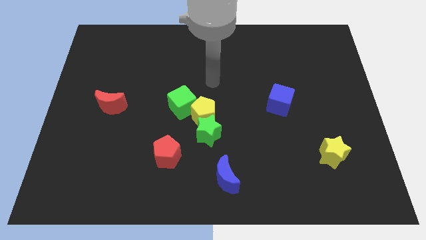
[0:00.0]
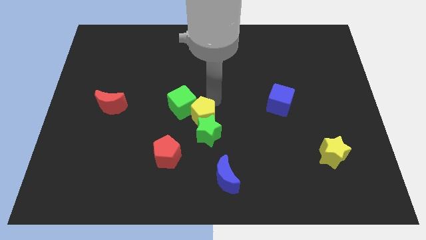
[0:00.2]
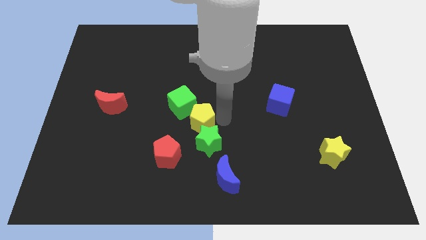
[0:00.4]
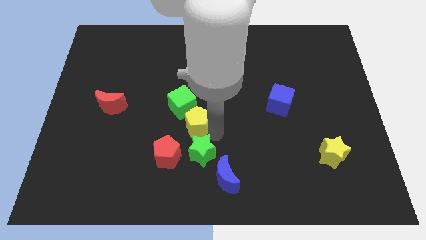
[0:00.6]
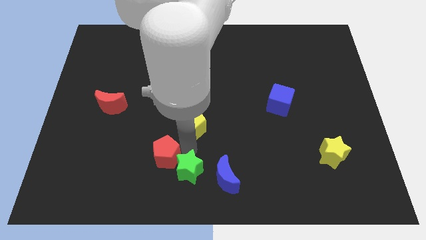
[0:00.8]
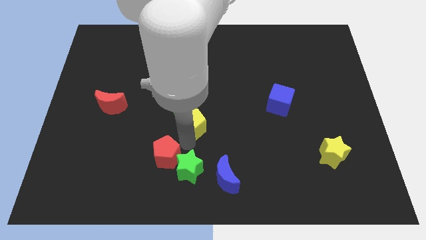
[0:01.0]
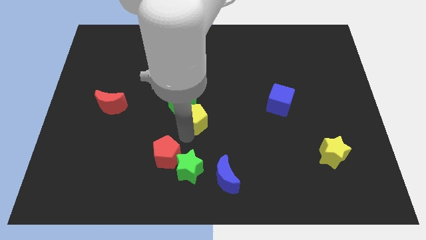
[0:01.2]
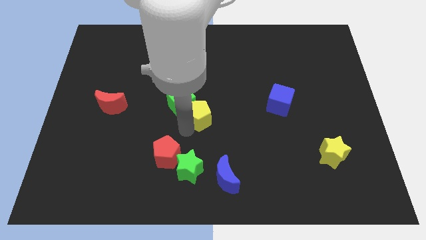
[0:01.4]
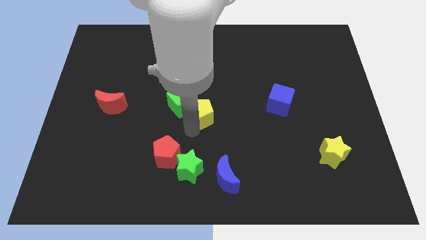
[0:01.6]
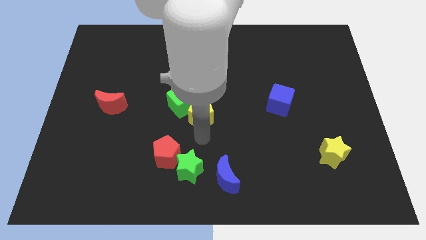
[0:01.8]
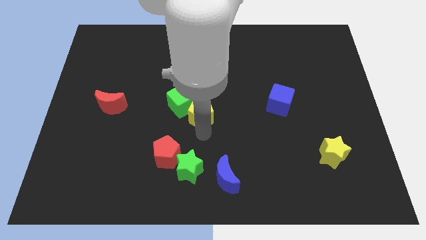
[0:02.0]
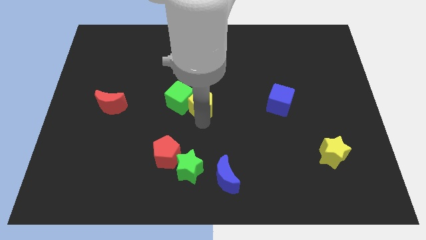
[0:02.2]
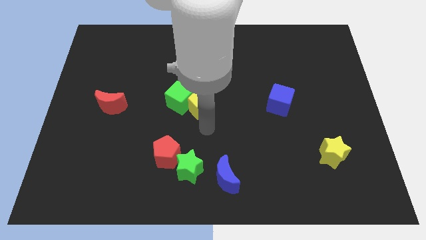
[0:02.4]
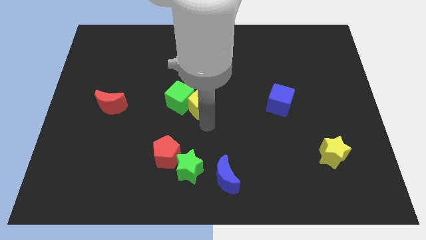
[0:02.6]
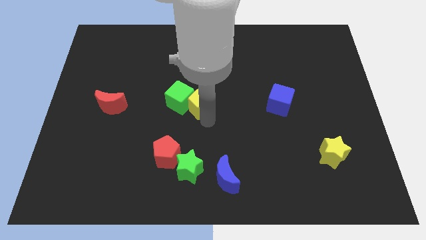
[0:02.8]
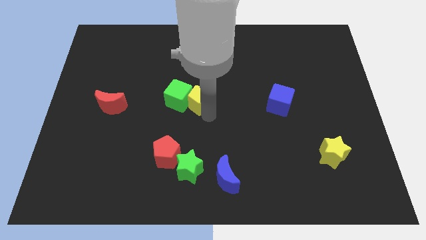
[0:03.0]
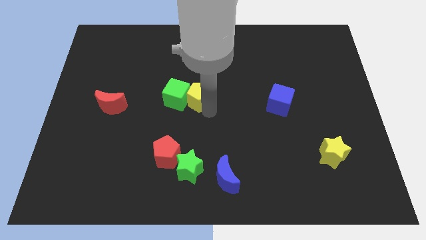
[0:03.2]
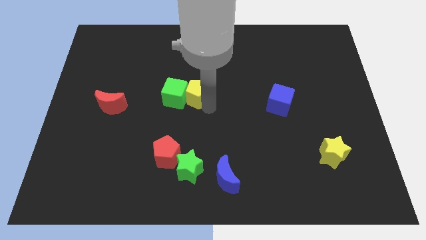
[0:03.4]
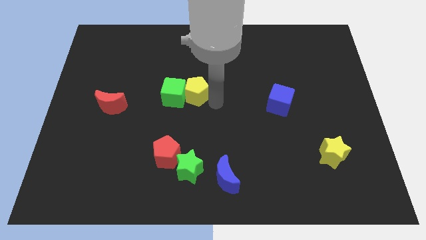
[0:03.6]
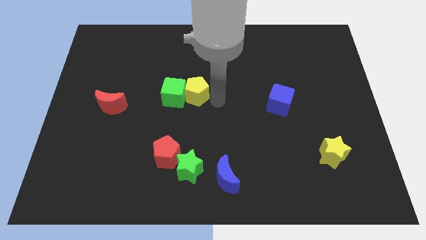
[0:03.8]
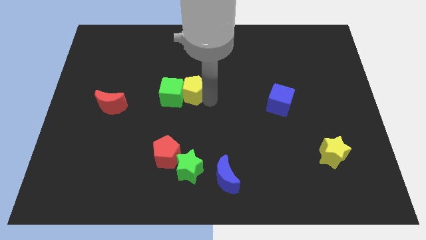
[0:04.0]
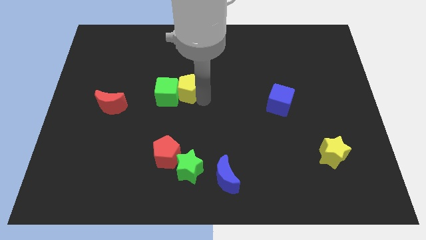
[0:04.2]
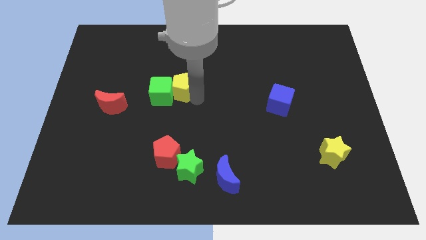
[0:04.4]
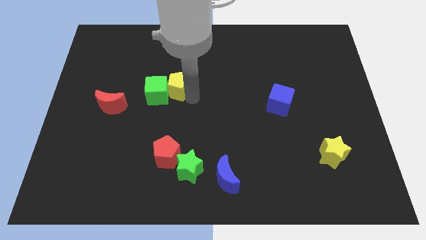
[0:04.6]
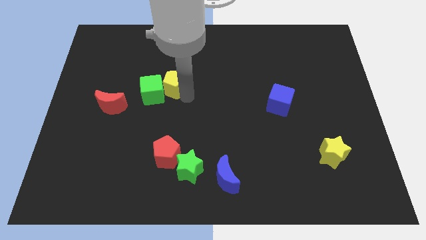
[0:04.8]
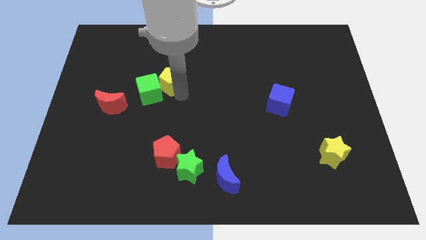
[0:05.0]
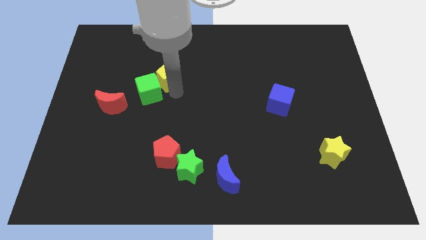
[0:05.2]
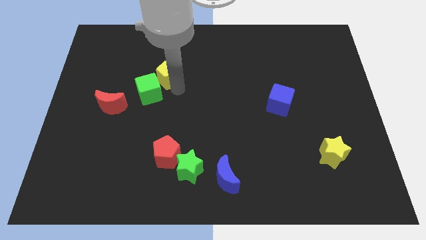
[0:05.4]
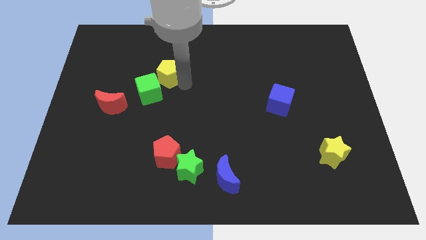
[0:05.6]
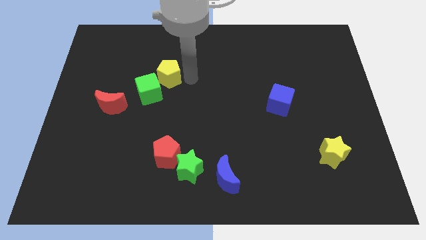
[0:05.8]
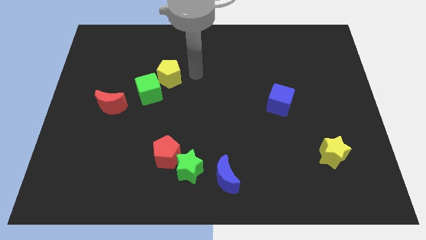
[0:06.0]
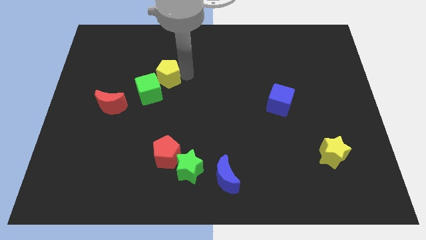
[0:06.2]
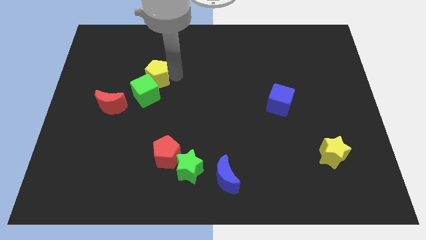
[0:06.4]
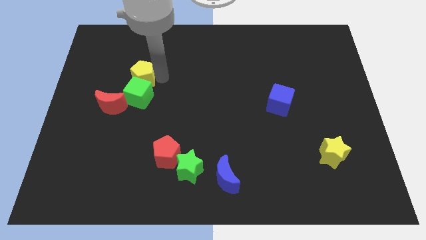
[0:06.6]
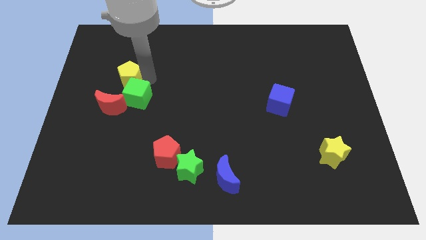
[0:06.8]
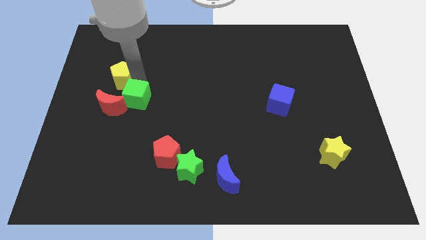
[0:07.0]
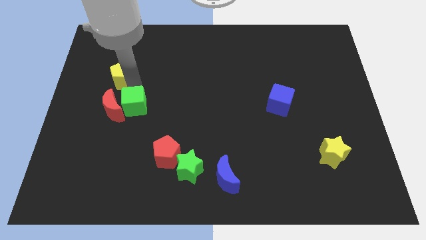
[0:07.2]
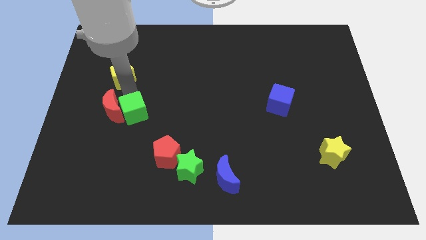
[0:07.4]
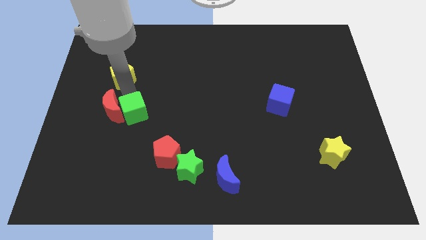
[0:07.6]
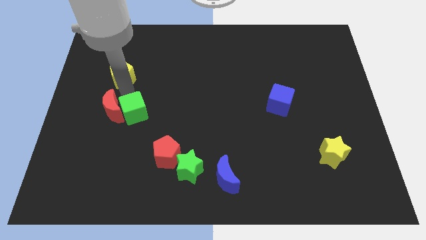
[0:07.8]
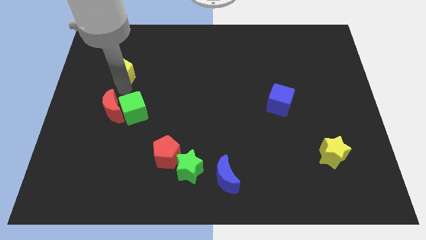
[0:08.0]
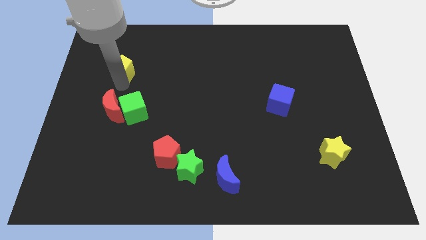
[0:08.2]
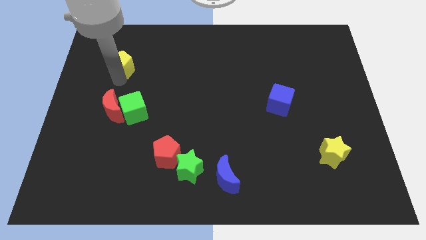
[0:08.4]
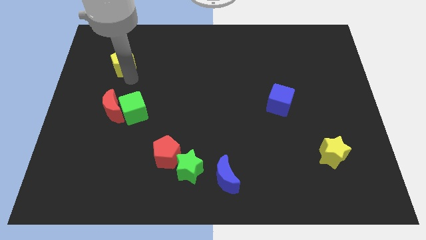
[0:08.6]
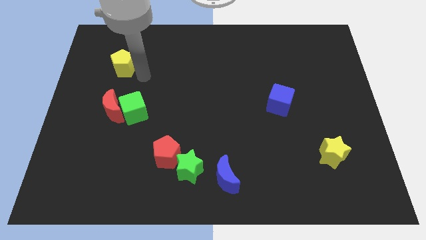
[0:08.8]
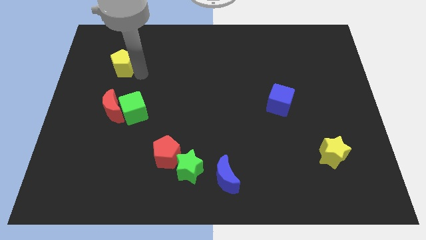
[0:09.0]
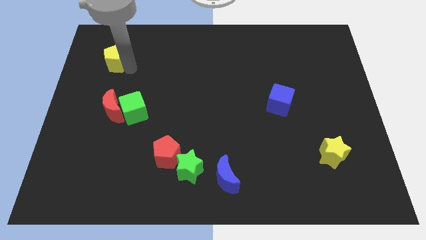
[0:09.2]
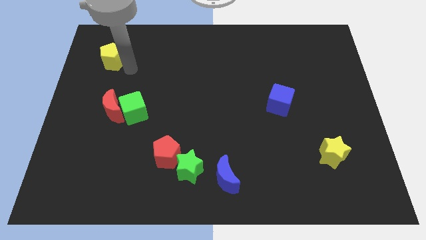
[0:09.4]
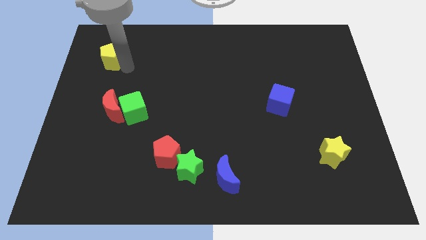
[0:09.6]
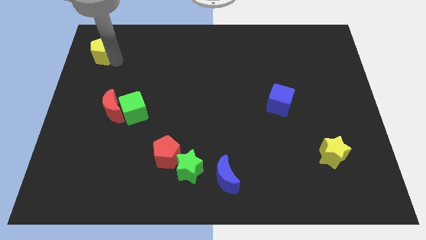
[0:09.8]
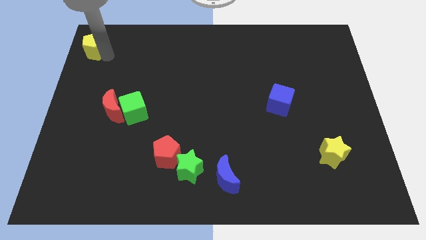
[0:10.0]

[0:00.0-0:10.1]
slide the yellow pentagon to the top left
